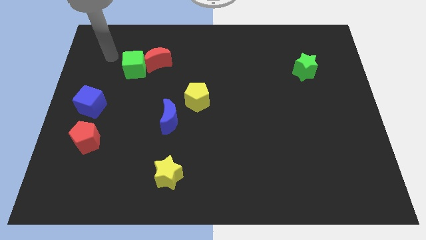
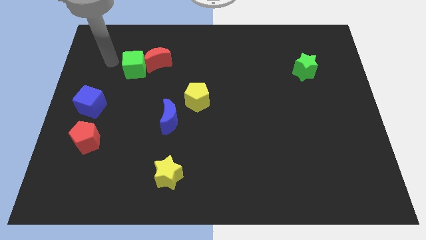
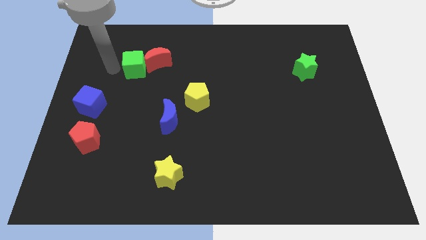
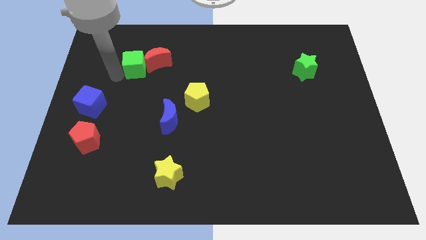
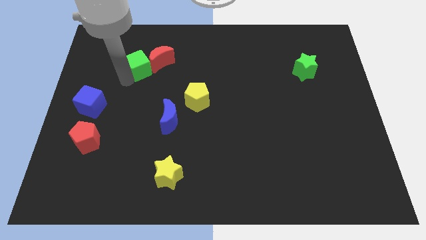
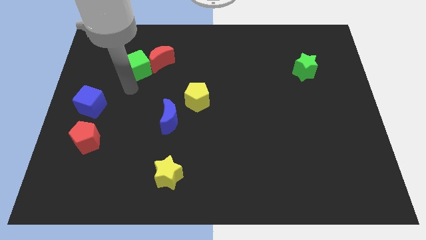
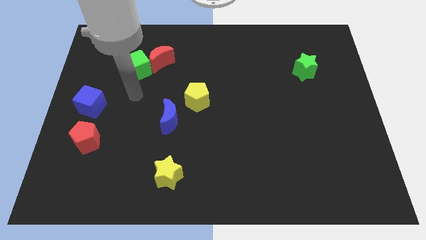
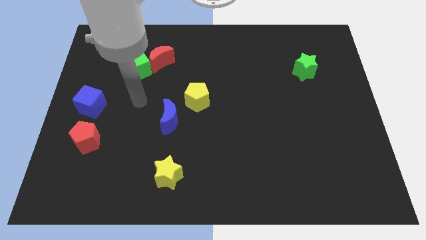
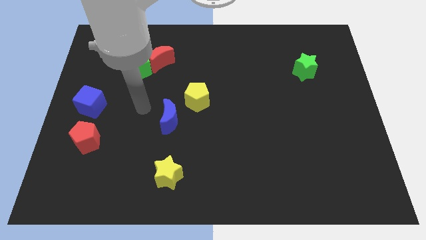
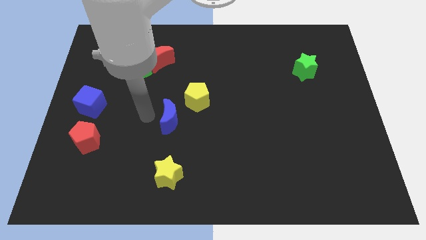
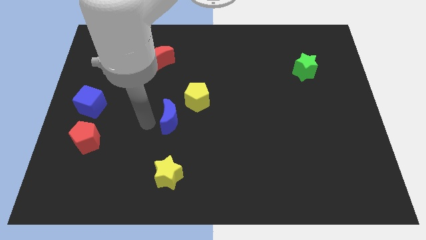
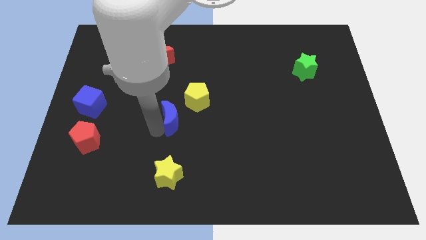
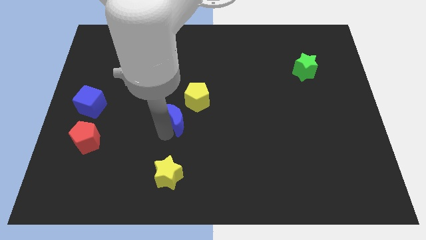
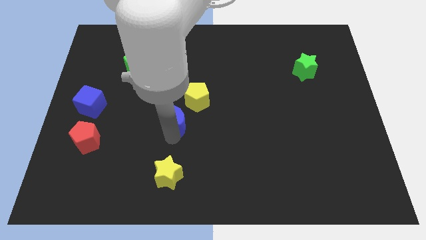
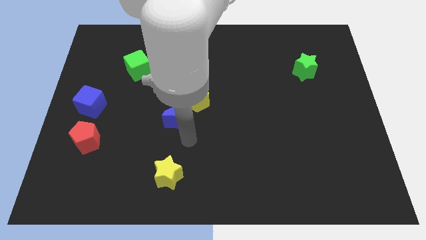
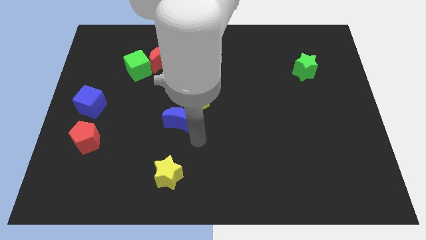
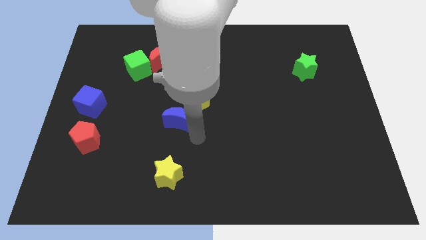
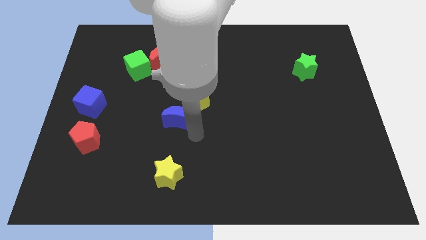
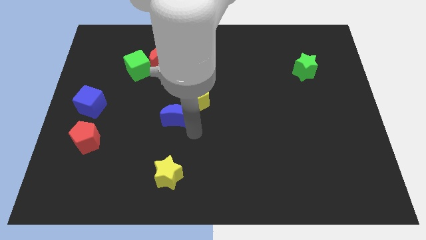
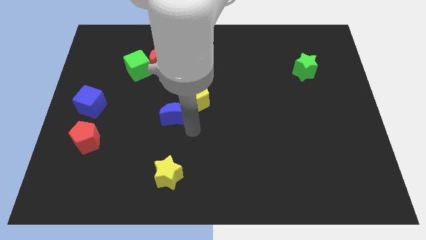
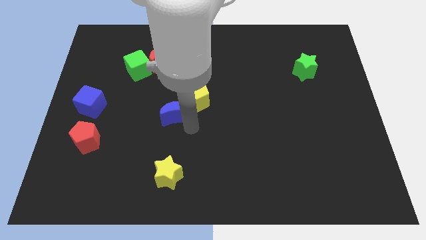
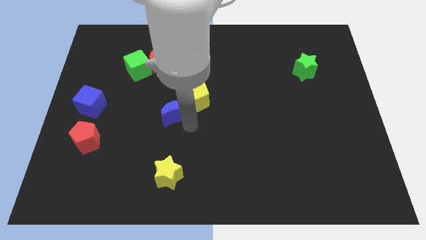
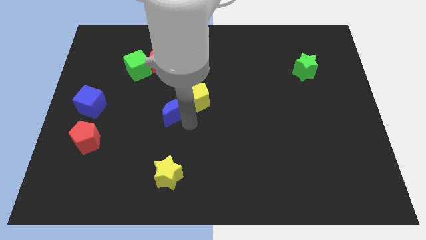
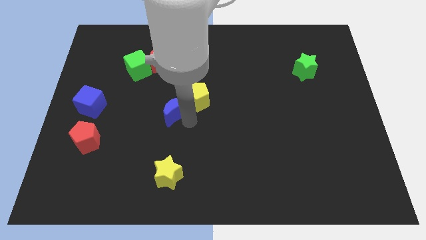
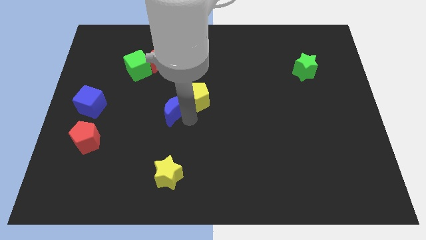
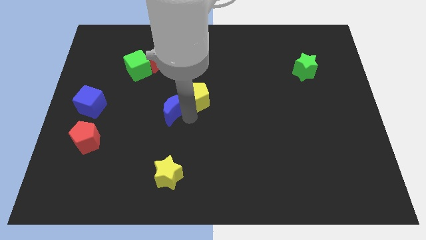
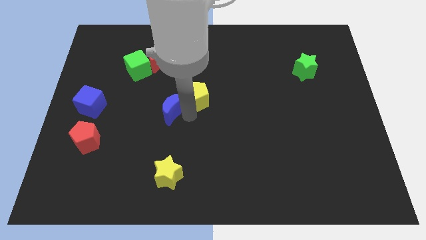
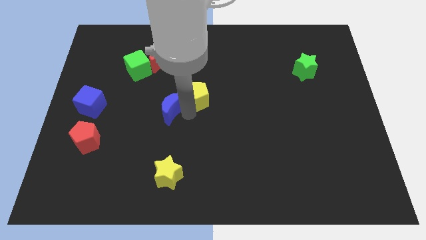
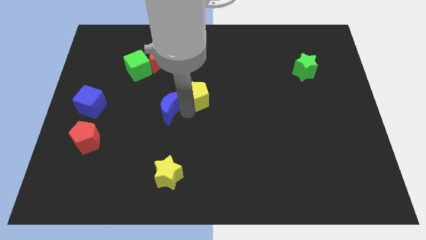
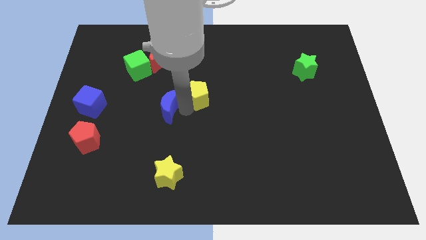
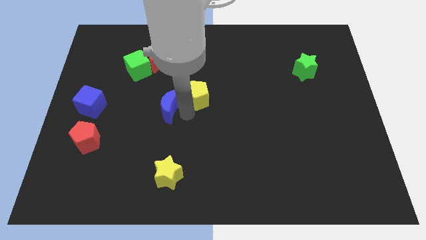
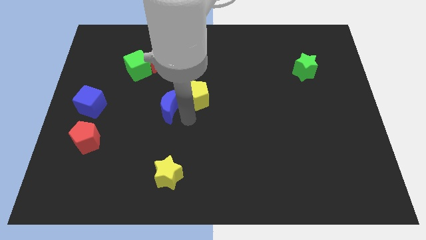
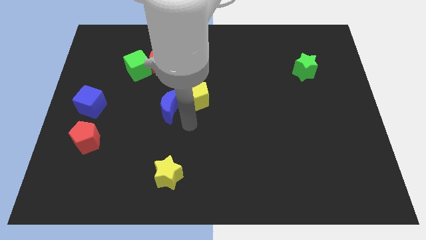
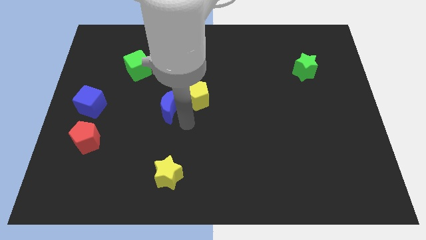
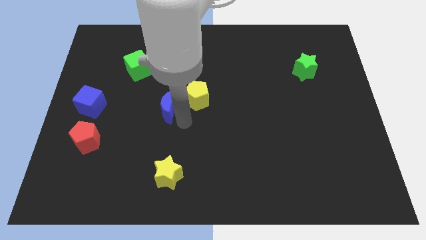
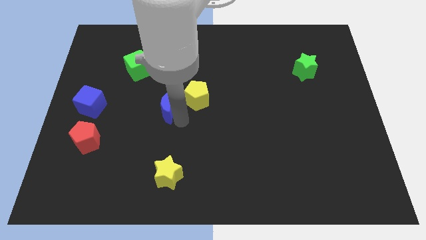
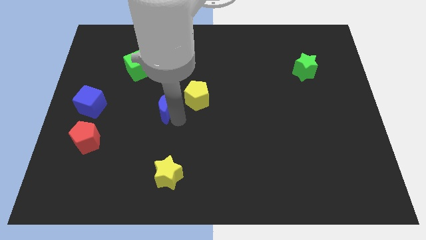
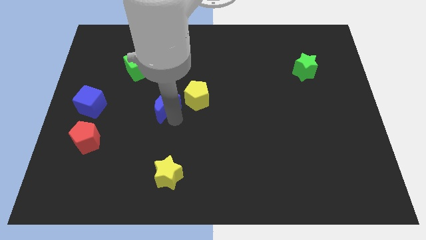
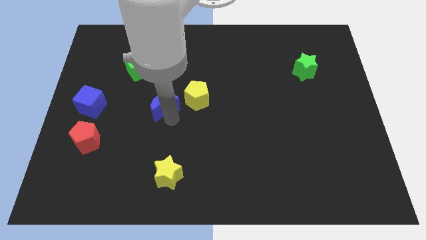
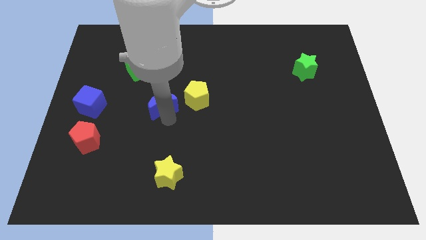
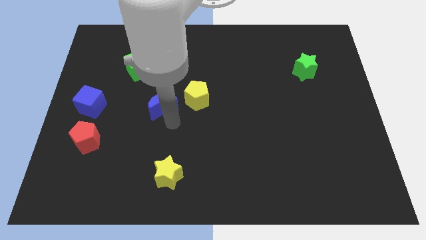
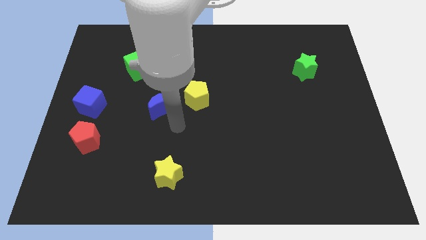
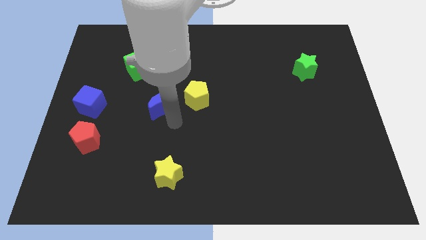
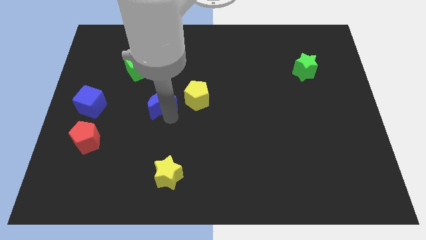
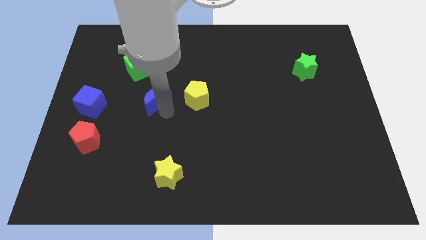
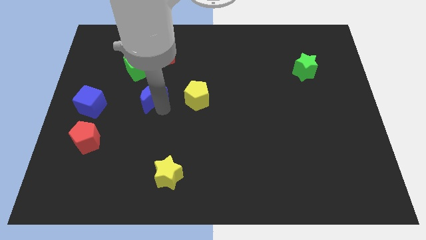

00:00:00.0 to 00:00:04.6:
move the blue moon diagonally up and to the left a bit

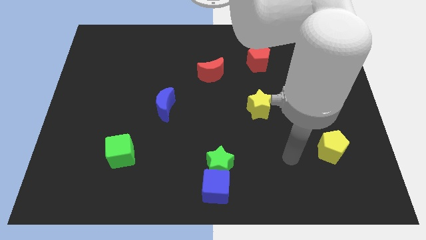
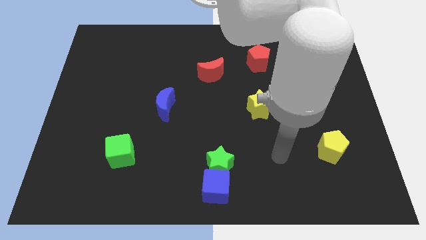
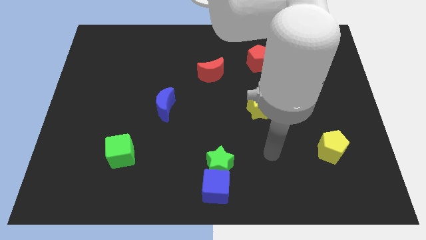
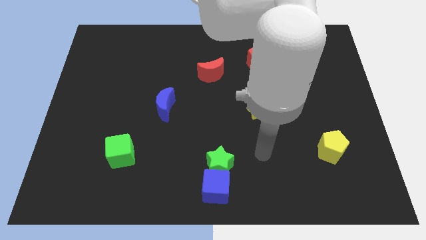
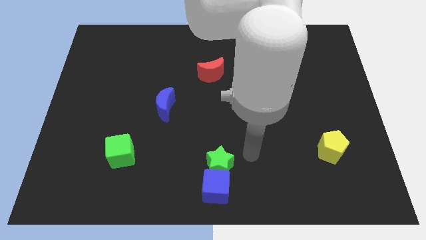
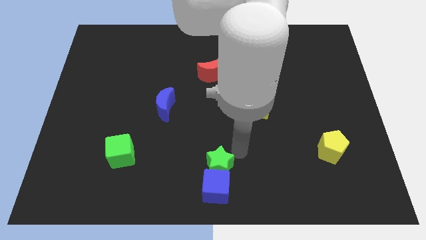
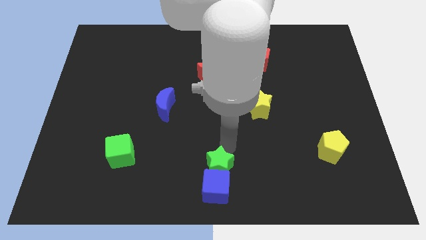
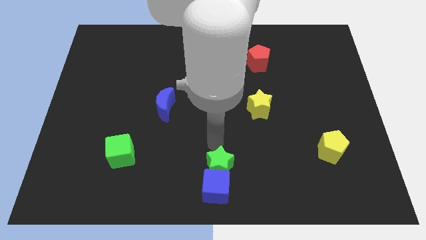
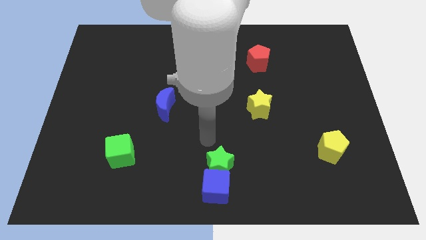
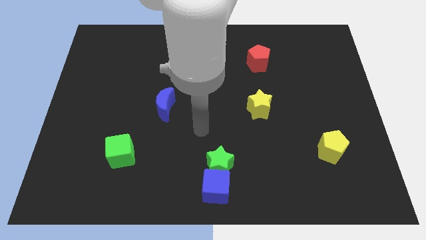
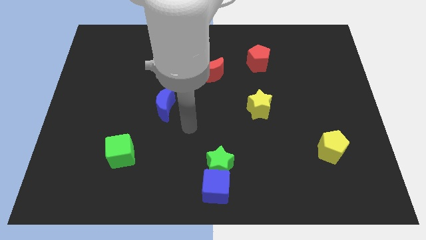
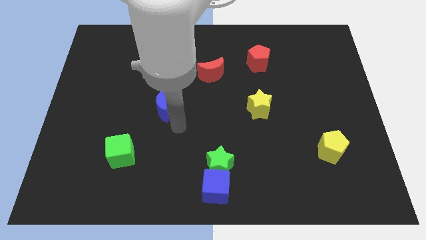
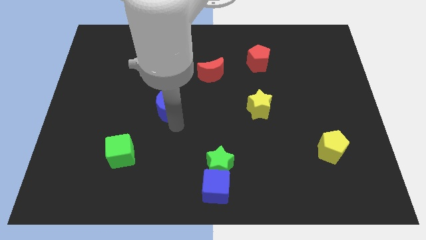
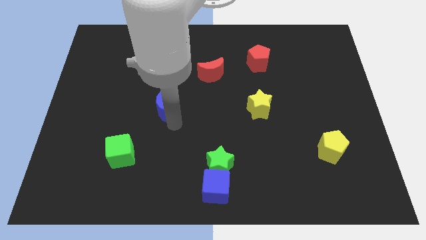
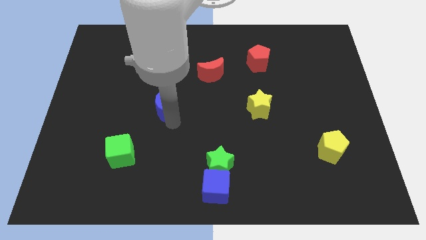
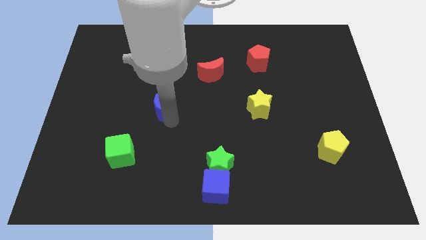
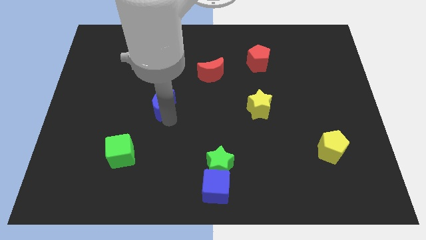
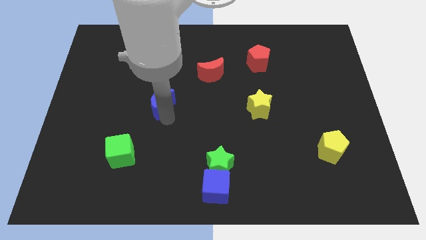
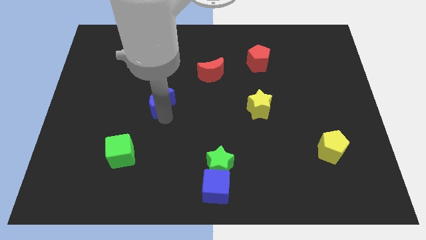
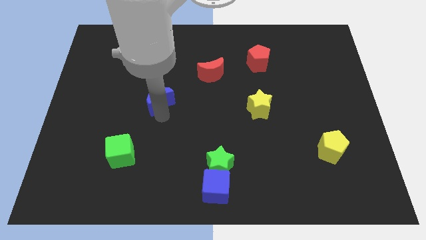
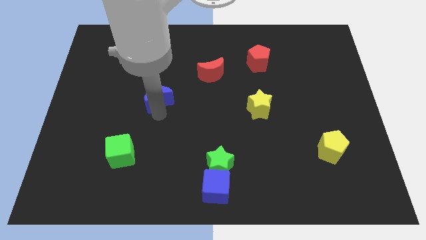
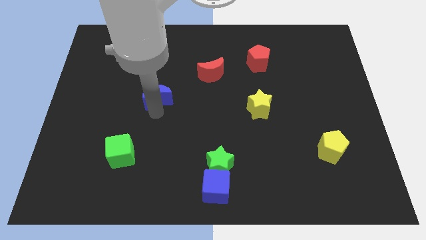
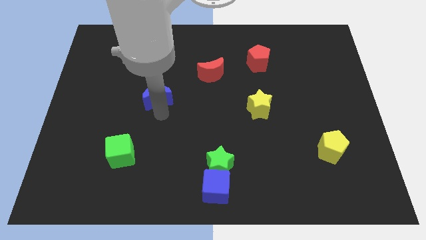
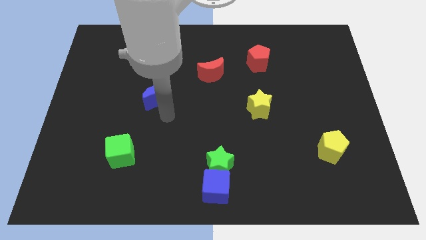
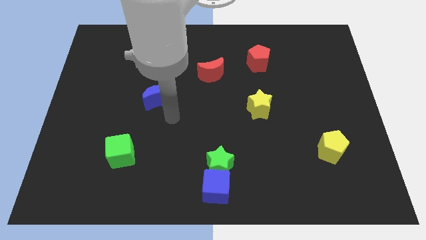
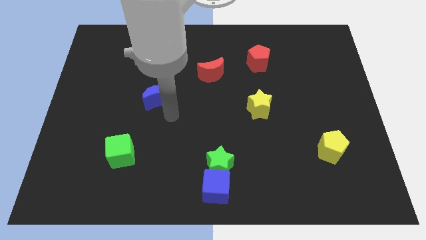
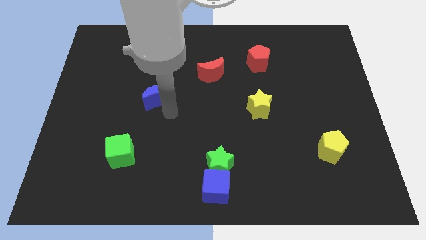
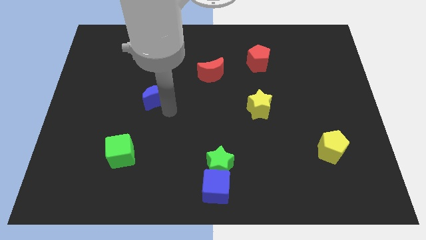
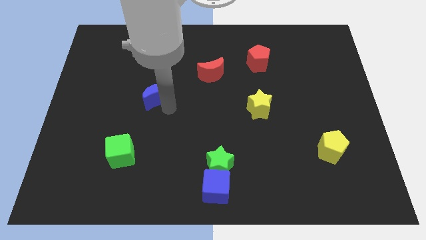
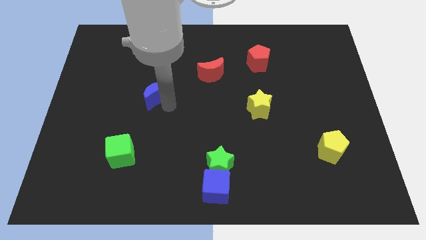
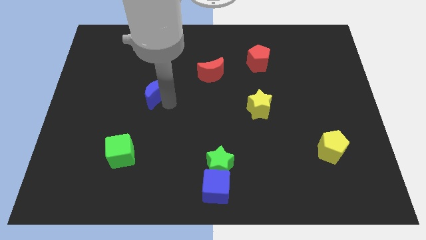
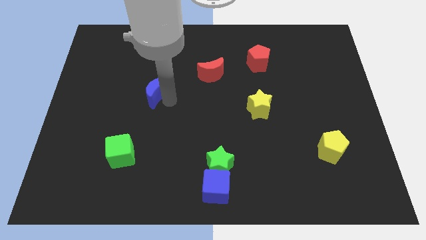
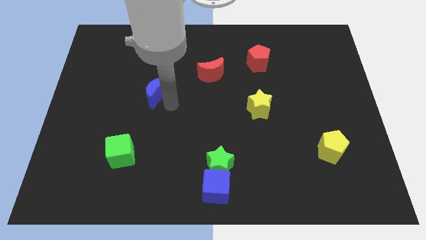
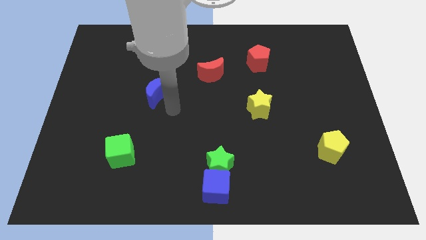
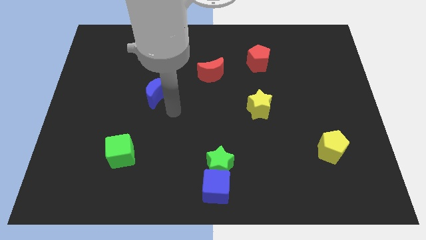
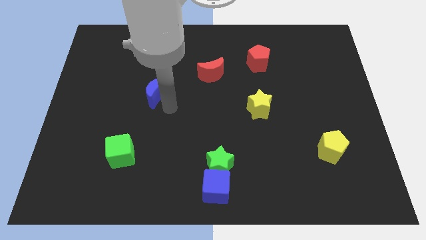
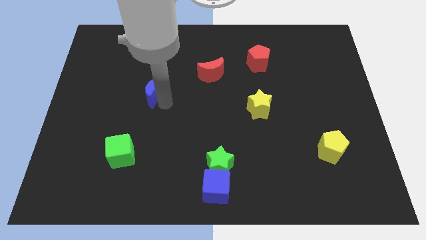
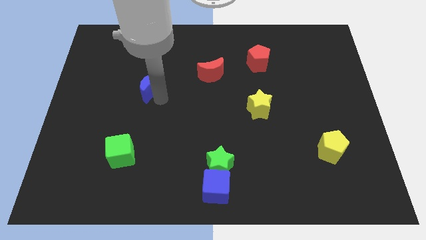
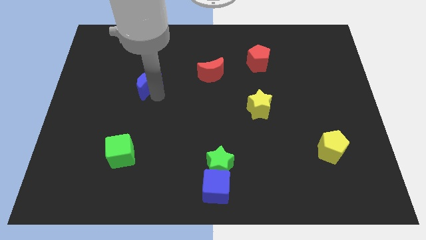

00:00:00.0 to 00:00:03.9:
slide the blue moon up and then left somewhat
